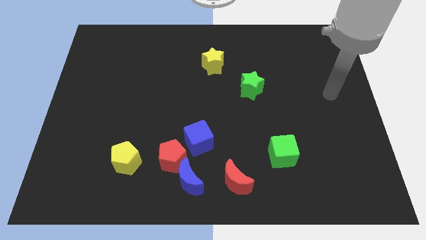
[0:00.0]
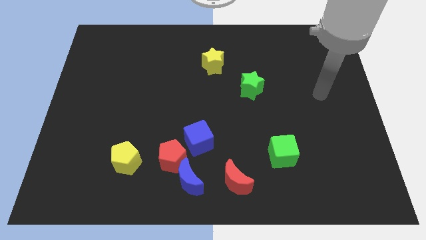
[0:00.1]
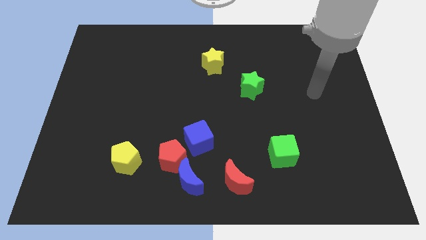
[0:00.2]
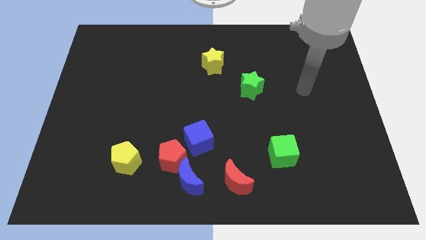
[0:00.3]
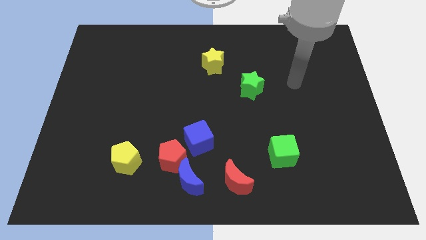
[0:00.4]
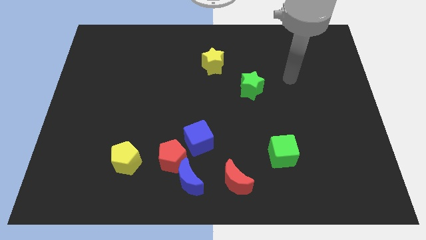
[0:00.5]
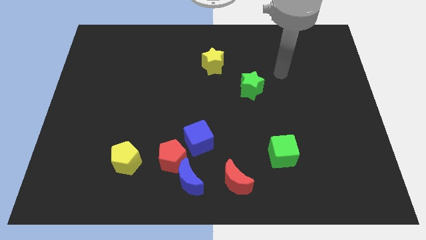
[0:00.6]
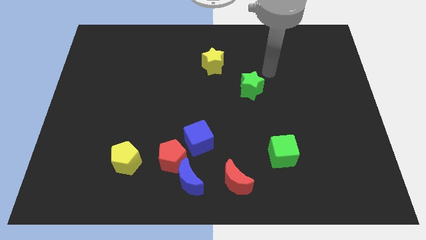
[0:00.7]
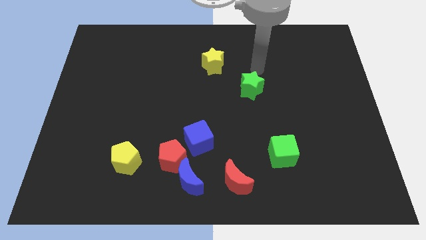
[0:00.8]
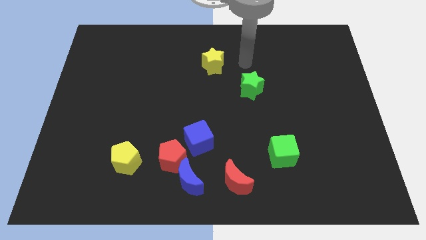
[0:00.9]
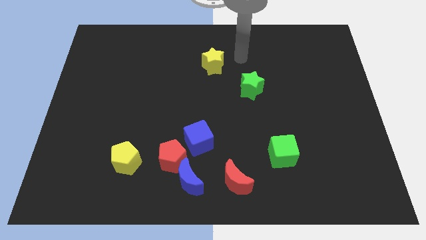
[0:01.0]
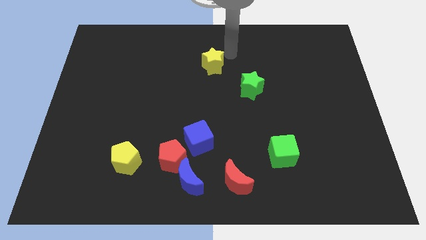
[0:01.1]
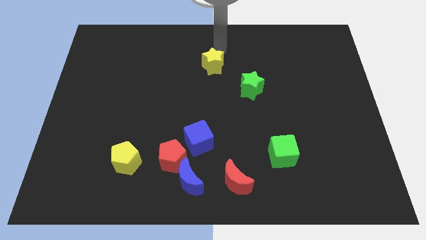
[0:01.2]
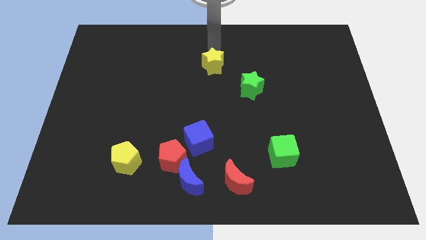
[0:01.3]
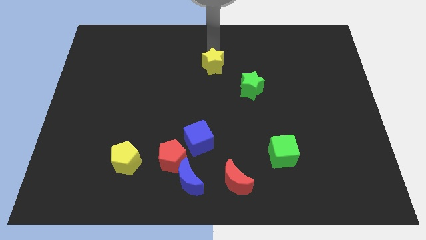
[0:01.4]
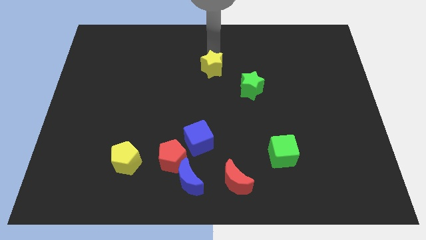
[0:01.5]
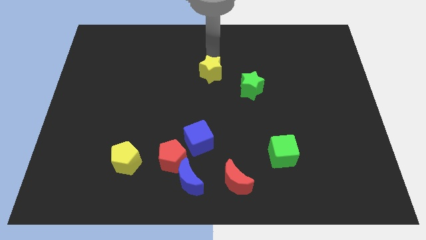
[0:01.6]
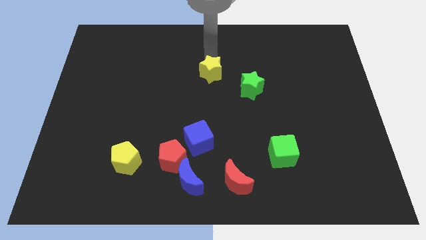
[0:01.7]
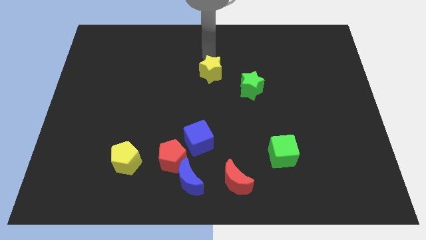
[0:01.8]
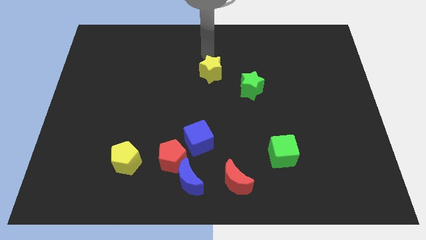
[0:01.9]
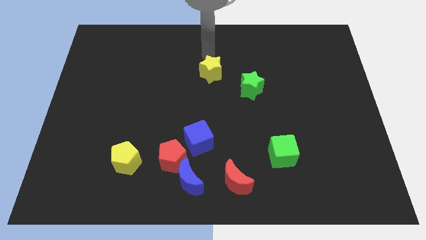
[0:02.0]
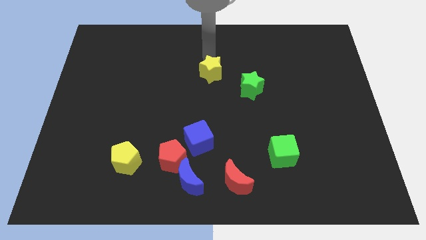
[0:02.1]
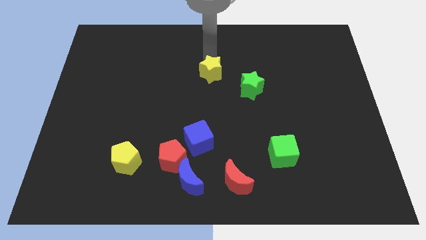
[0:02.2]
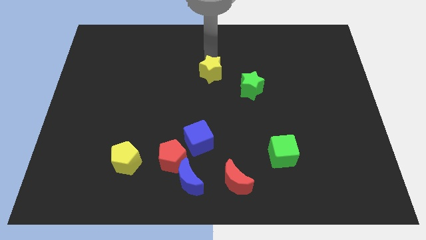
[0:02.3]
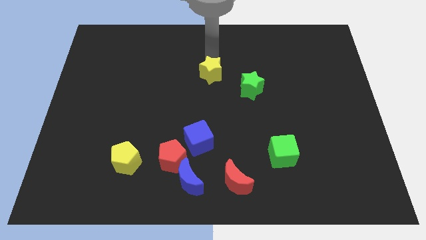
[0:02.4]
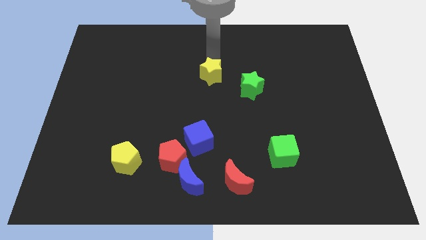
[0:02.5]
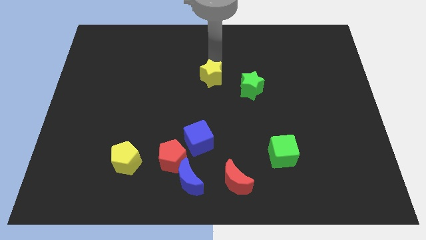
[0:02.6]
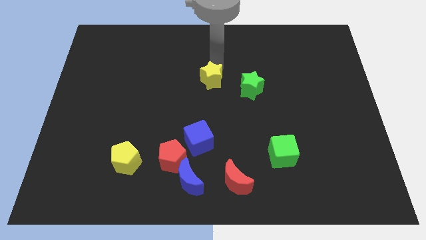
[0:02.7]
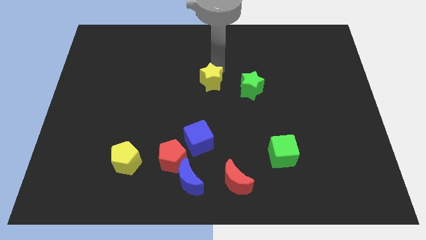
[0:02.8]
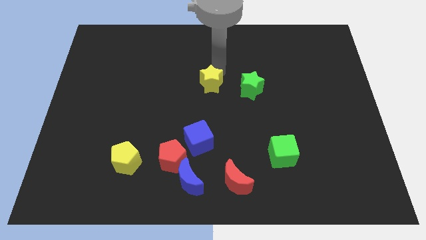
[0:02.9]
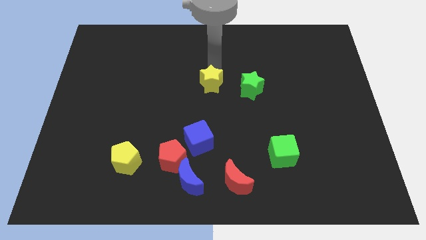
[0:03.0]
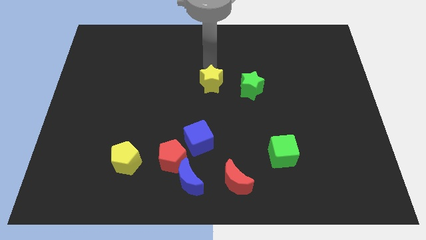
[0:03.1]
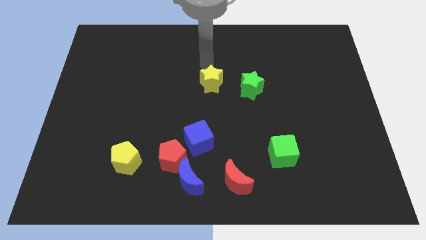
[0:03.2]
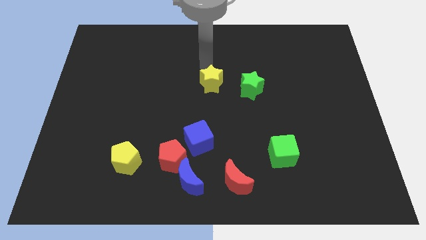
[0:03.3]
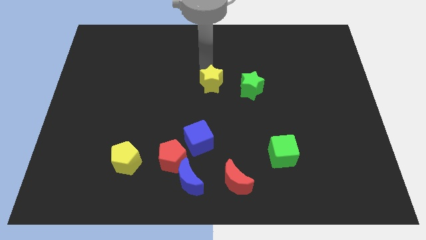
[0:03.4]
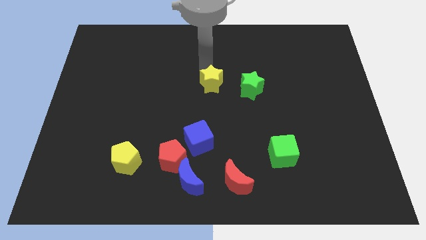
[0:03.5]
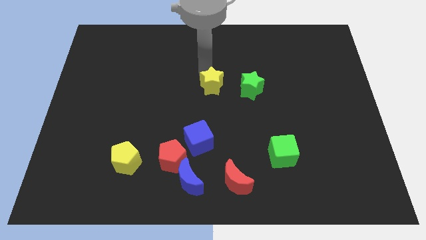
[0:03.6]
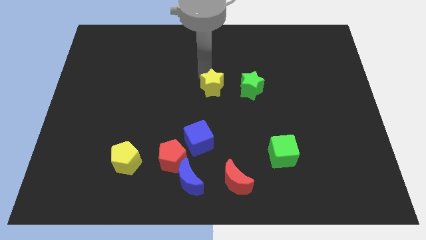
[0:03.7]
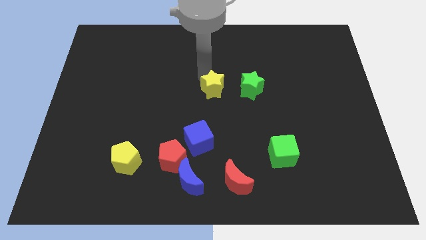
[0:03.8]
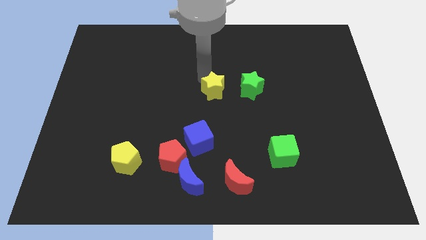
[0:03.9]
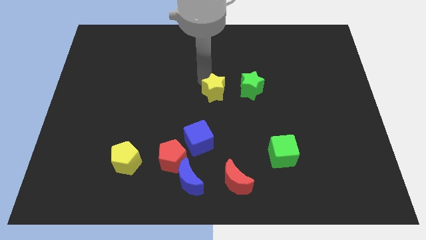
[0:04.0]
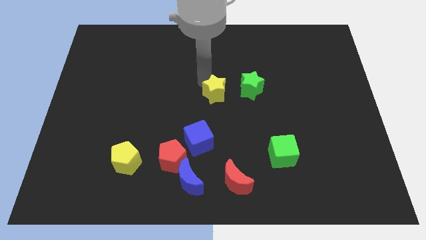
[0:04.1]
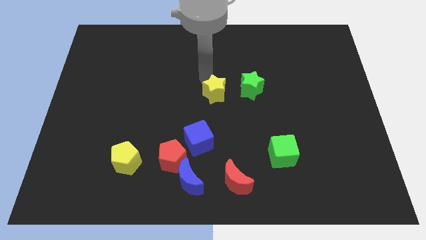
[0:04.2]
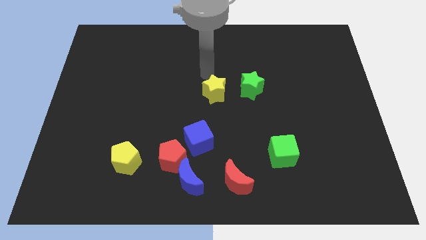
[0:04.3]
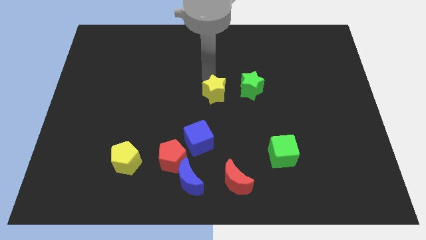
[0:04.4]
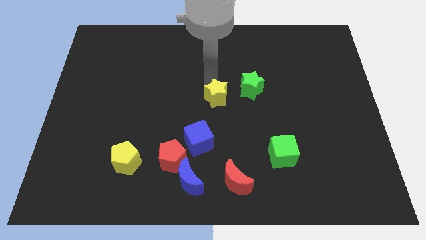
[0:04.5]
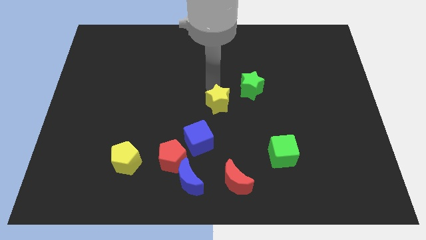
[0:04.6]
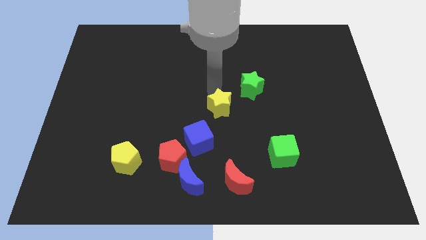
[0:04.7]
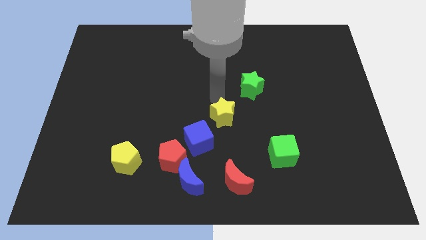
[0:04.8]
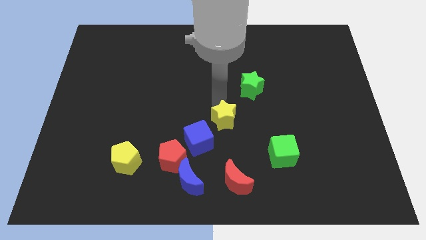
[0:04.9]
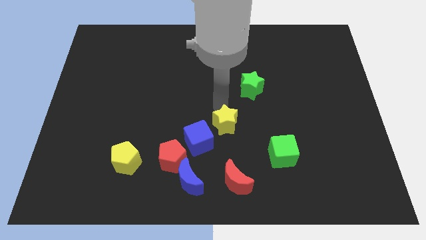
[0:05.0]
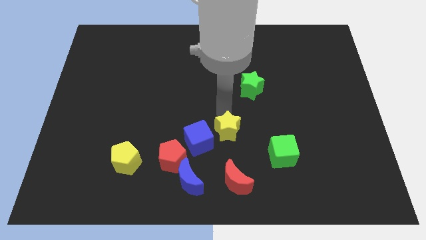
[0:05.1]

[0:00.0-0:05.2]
push the yellow star down

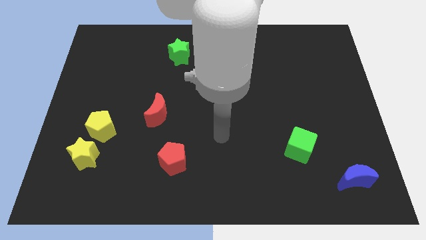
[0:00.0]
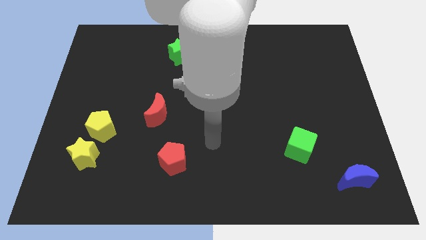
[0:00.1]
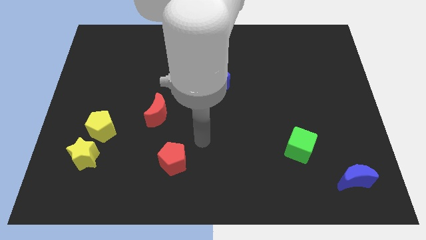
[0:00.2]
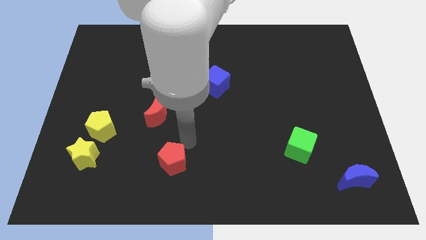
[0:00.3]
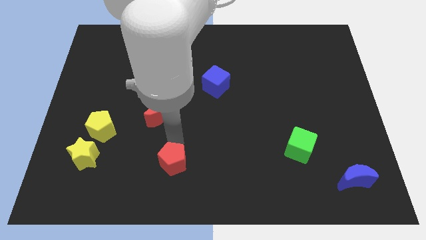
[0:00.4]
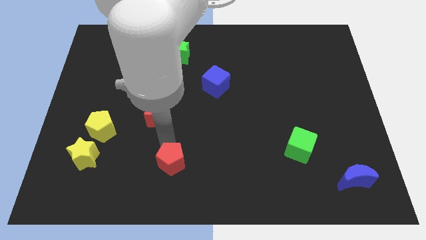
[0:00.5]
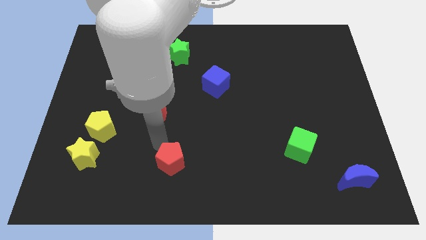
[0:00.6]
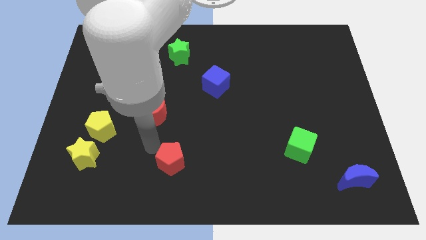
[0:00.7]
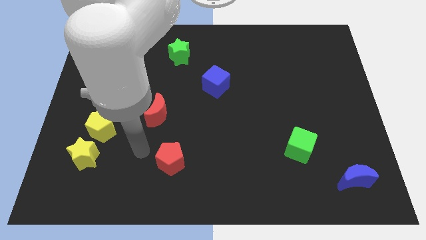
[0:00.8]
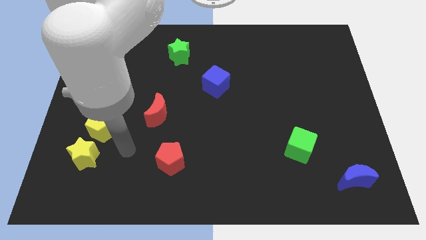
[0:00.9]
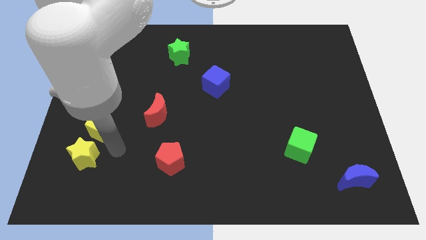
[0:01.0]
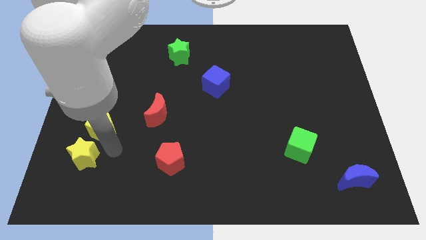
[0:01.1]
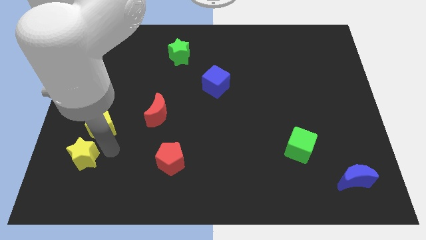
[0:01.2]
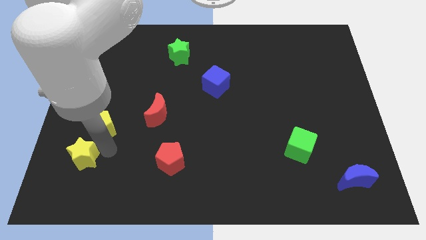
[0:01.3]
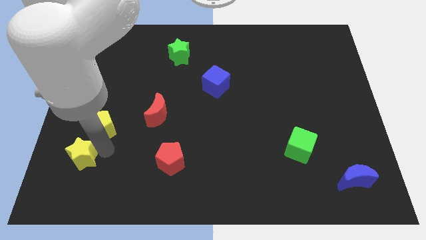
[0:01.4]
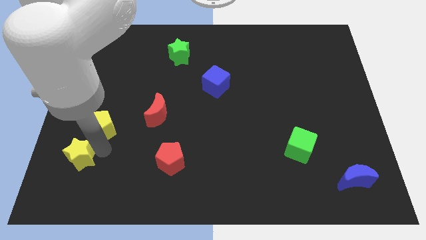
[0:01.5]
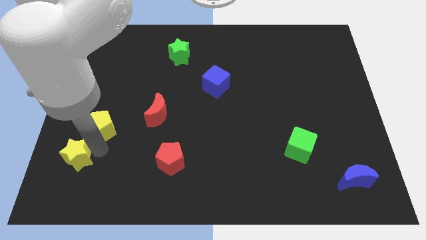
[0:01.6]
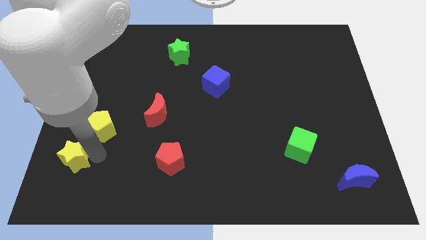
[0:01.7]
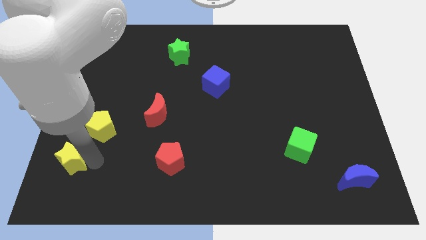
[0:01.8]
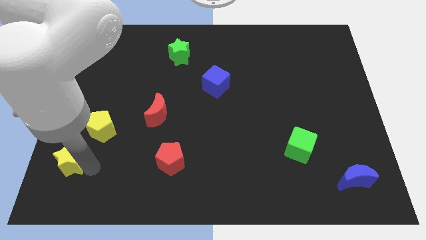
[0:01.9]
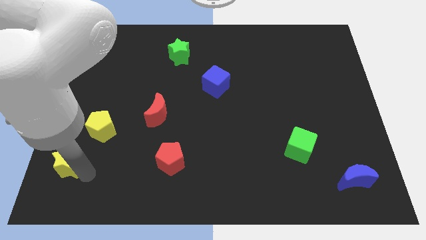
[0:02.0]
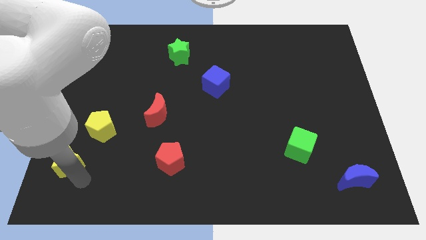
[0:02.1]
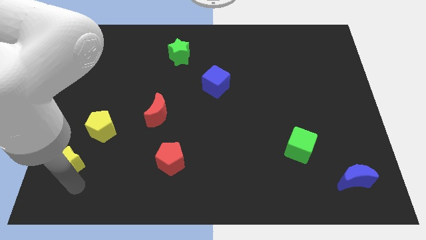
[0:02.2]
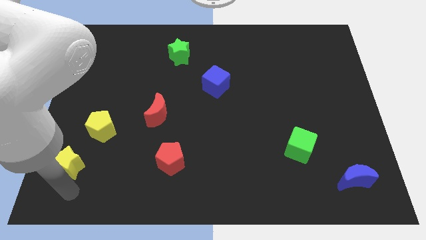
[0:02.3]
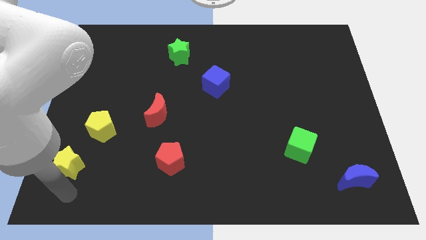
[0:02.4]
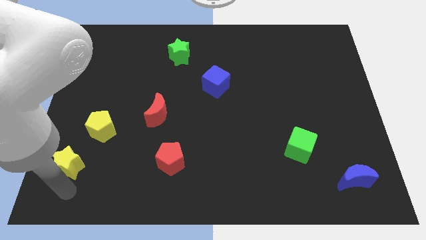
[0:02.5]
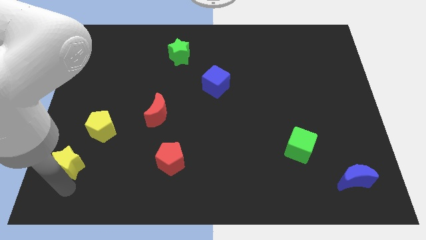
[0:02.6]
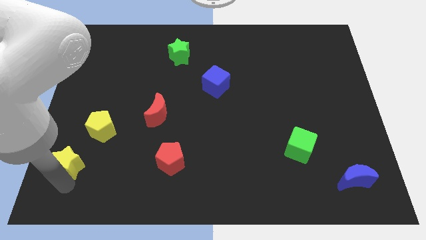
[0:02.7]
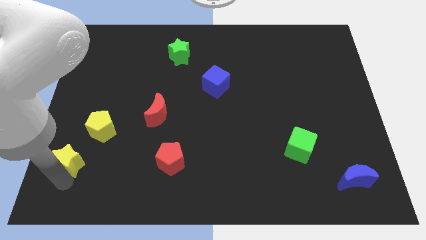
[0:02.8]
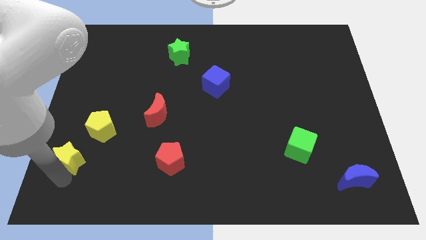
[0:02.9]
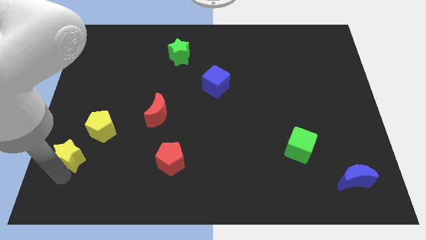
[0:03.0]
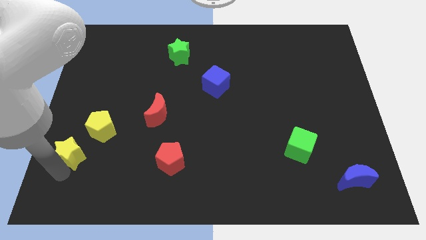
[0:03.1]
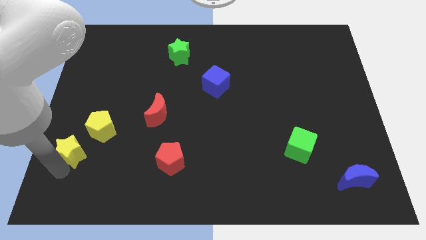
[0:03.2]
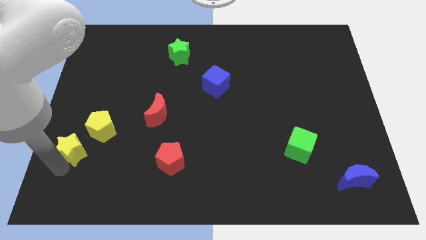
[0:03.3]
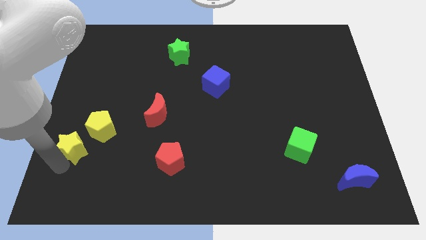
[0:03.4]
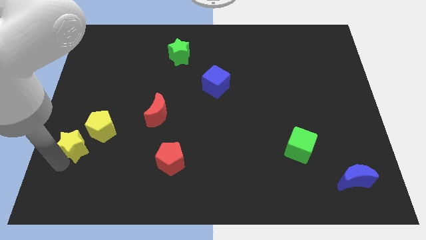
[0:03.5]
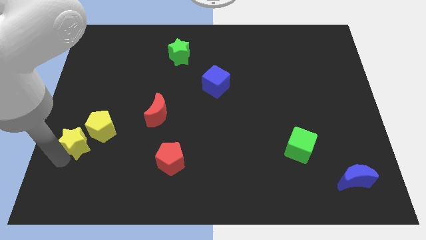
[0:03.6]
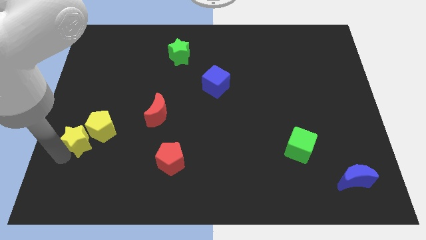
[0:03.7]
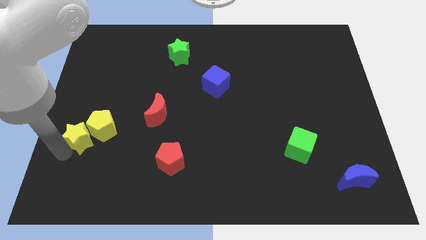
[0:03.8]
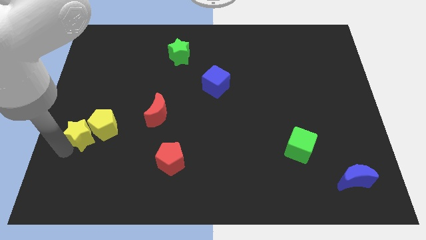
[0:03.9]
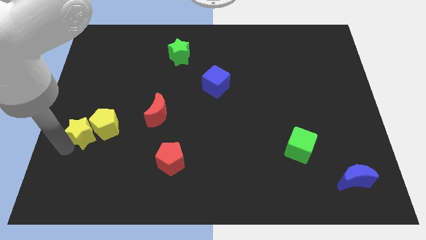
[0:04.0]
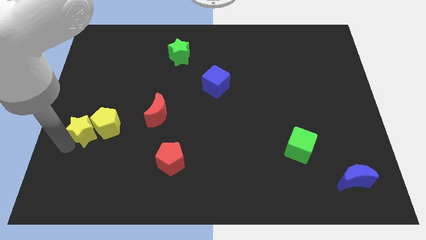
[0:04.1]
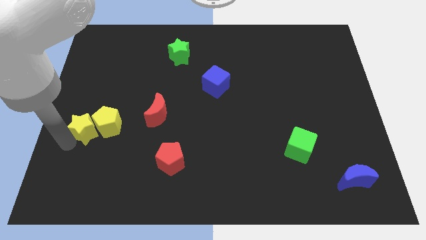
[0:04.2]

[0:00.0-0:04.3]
push the yellow star up a little bit
